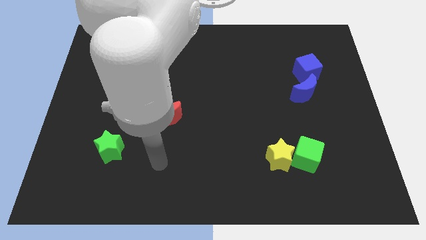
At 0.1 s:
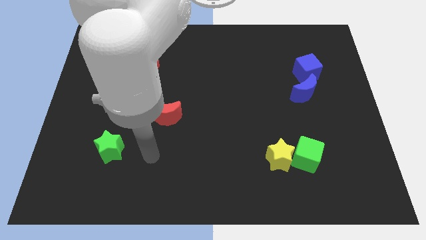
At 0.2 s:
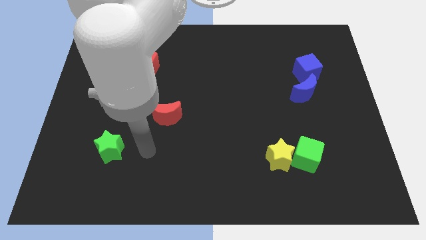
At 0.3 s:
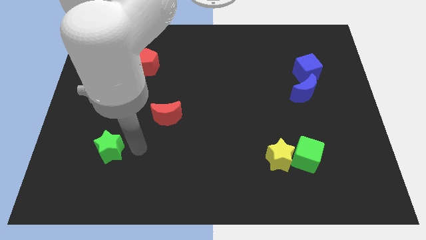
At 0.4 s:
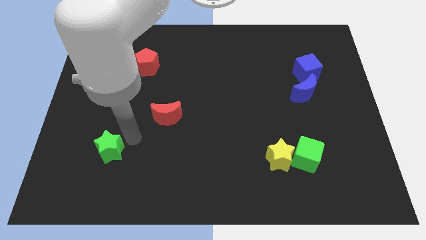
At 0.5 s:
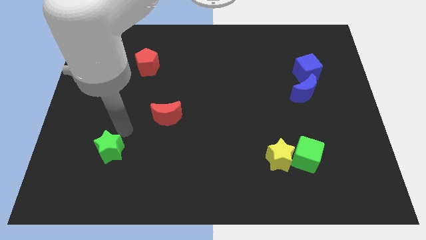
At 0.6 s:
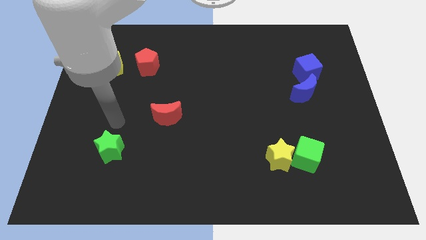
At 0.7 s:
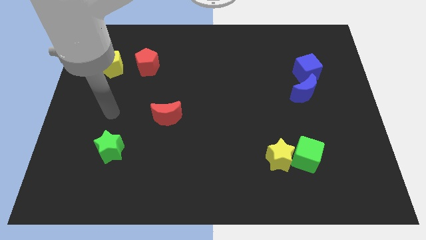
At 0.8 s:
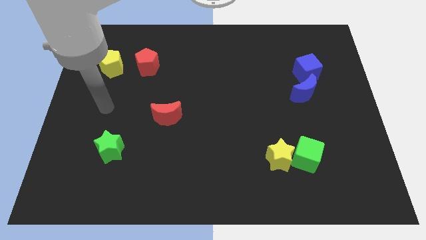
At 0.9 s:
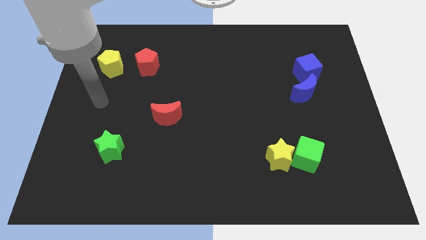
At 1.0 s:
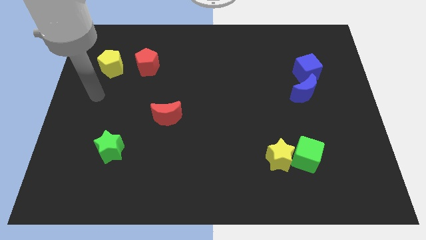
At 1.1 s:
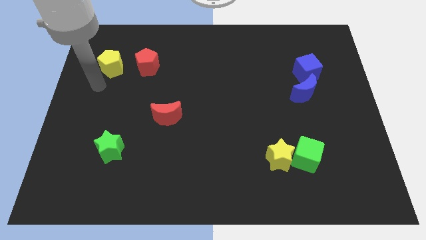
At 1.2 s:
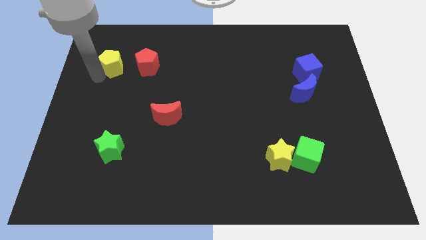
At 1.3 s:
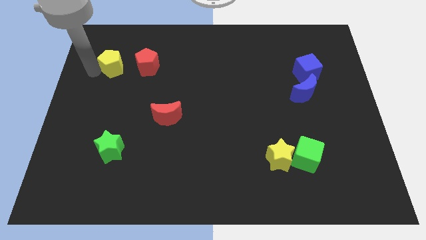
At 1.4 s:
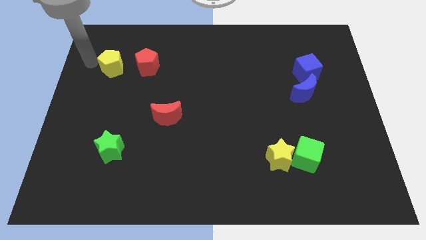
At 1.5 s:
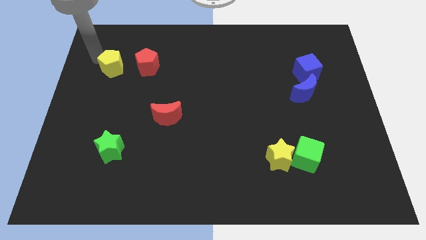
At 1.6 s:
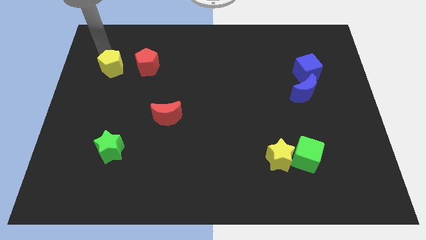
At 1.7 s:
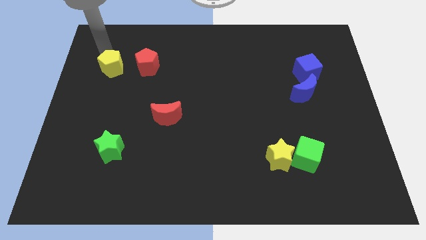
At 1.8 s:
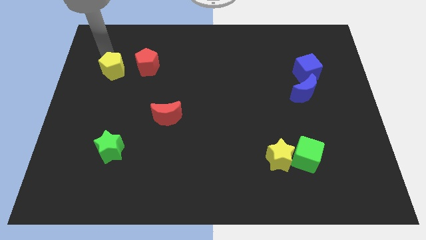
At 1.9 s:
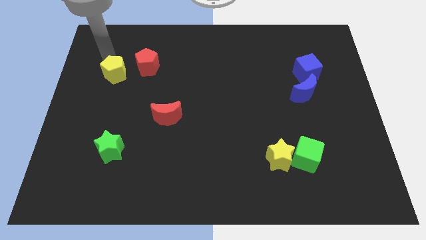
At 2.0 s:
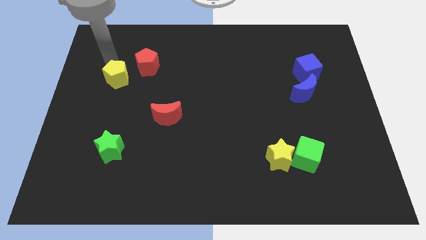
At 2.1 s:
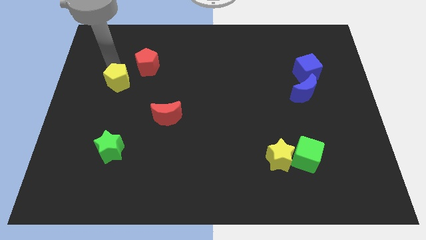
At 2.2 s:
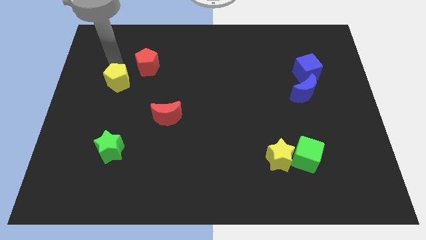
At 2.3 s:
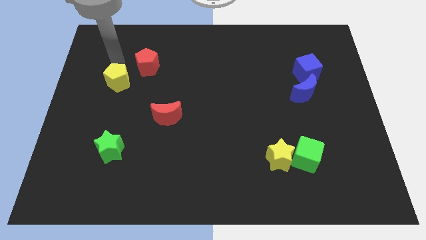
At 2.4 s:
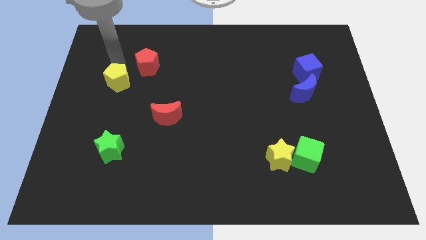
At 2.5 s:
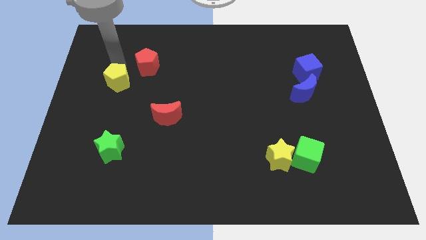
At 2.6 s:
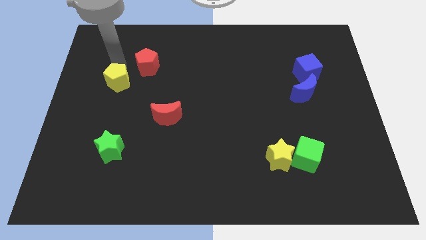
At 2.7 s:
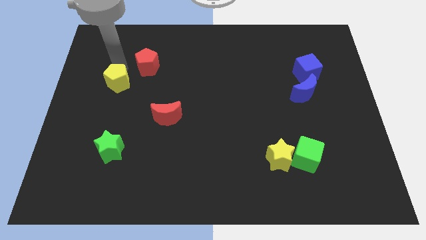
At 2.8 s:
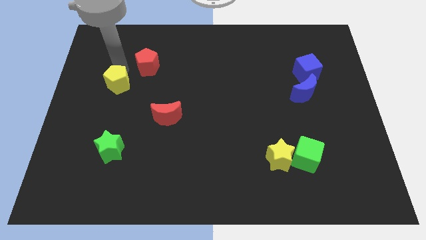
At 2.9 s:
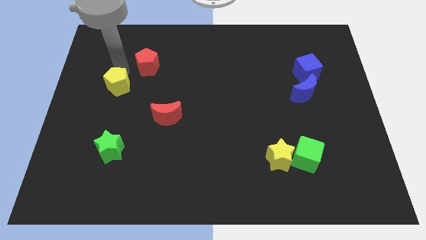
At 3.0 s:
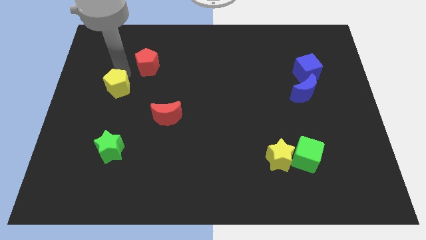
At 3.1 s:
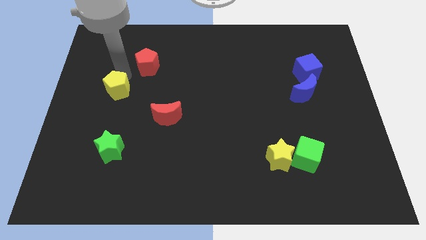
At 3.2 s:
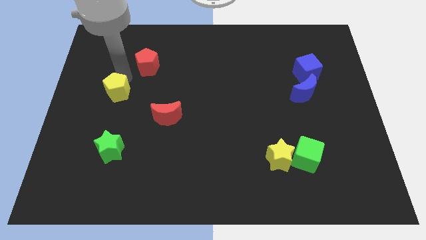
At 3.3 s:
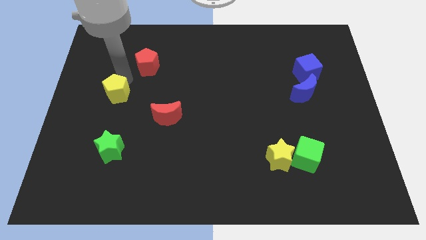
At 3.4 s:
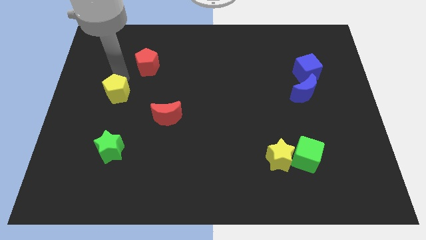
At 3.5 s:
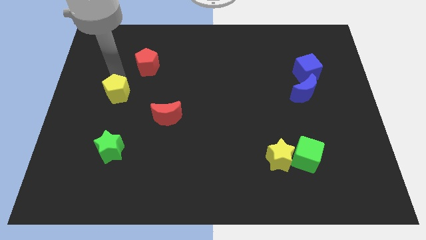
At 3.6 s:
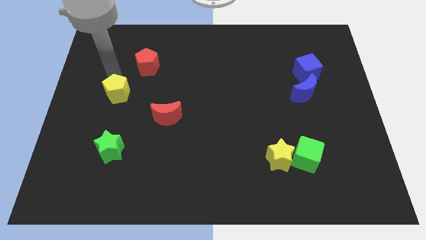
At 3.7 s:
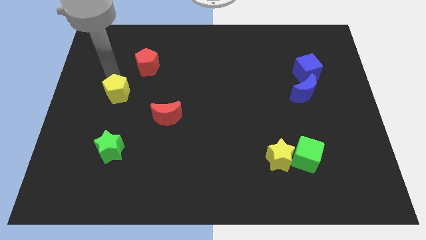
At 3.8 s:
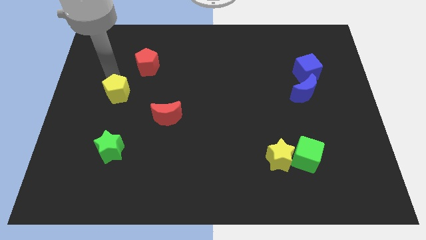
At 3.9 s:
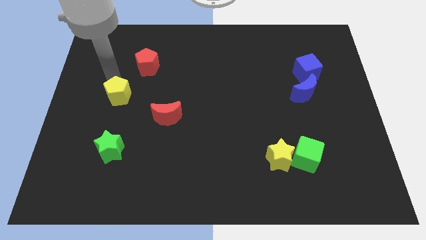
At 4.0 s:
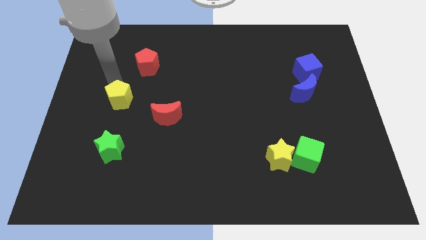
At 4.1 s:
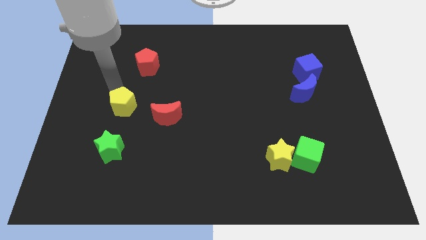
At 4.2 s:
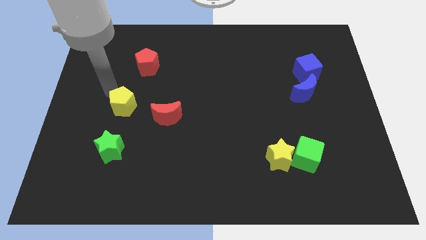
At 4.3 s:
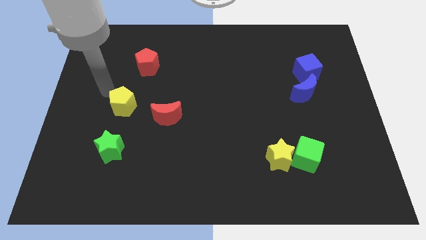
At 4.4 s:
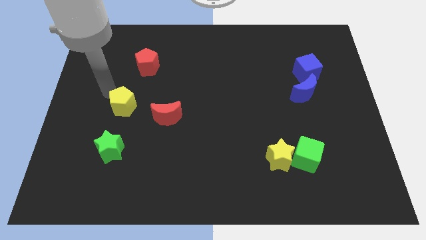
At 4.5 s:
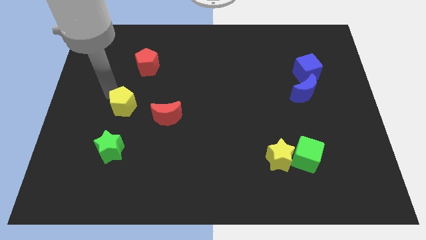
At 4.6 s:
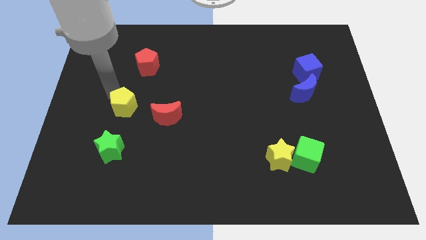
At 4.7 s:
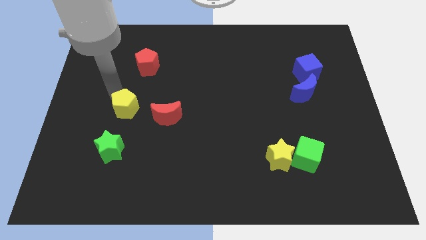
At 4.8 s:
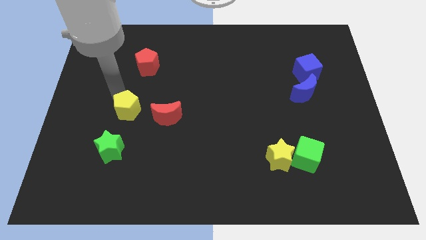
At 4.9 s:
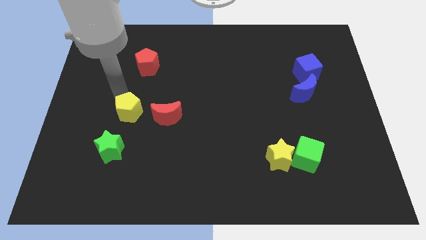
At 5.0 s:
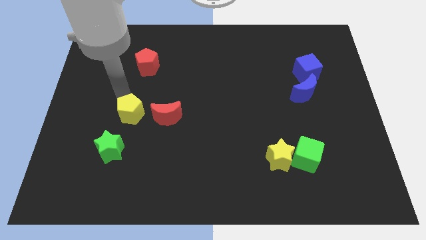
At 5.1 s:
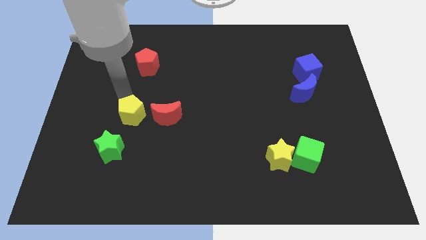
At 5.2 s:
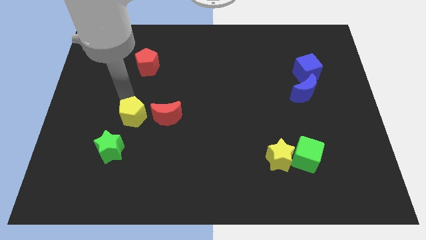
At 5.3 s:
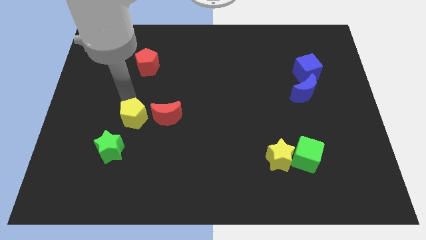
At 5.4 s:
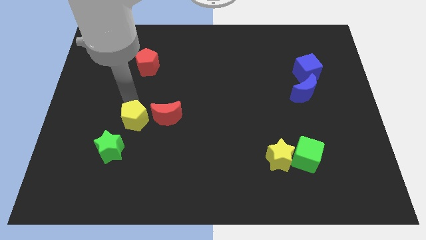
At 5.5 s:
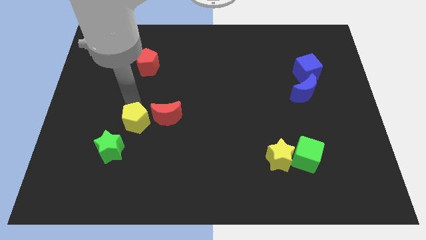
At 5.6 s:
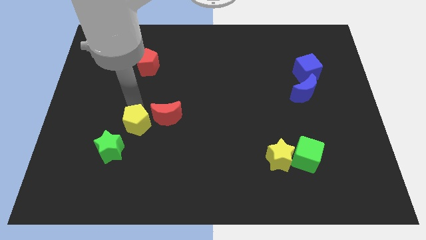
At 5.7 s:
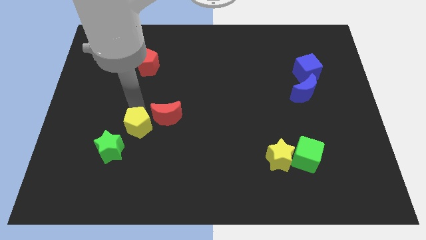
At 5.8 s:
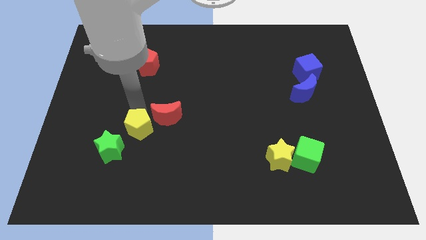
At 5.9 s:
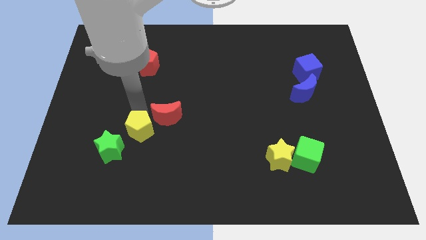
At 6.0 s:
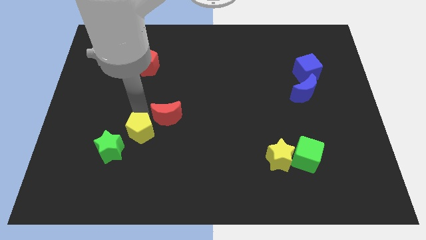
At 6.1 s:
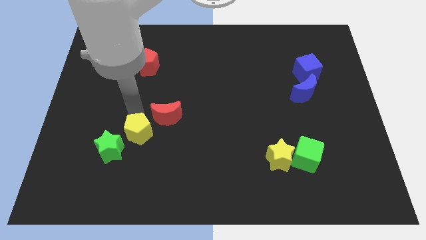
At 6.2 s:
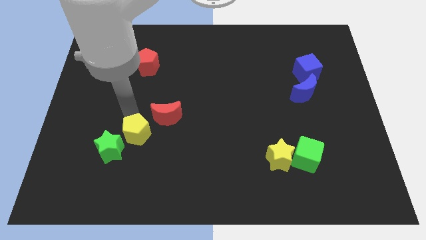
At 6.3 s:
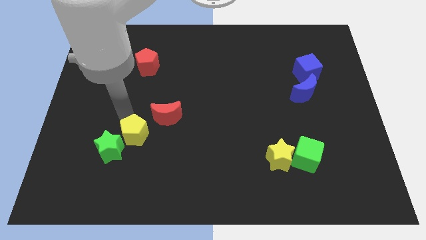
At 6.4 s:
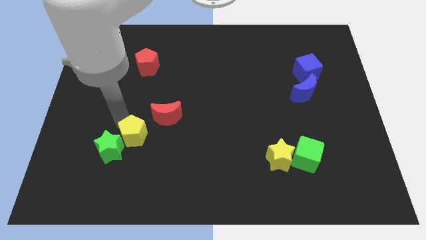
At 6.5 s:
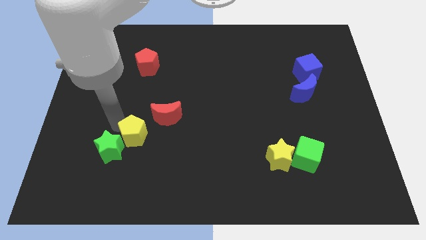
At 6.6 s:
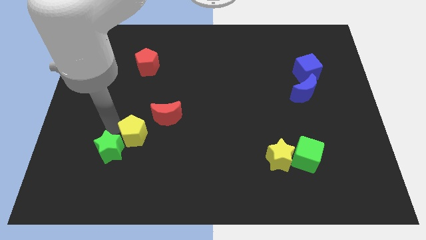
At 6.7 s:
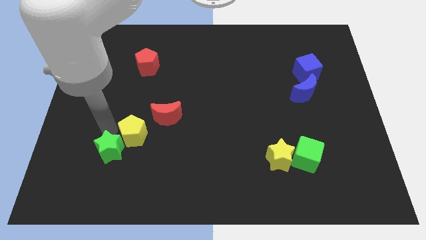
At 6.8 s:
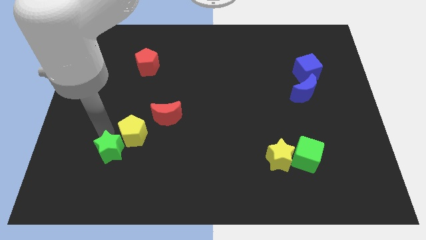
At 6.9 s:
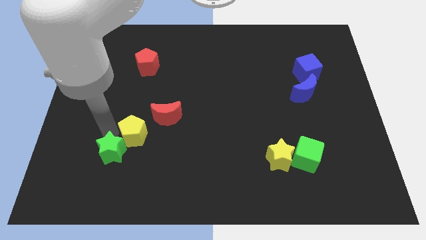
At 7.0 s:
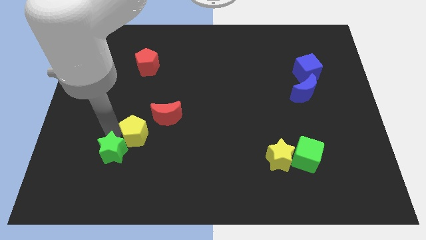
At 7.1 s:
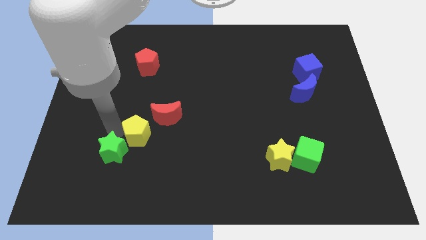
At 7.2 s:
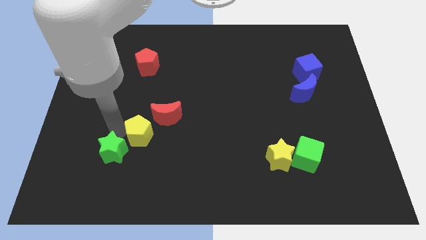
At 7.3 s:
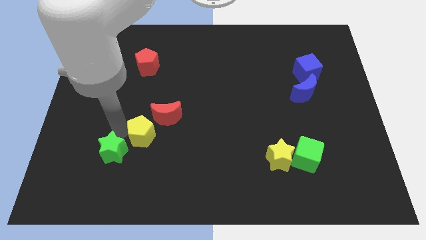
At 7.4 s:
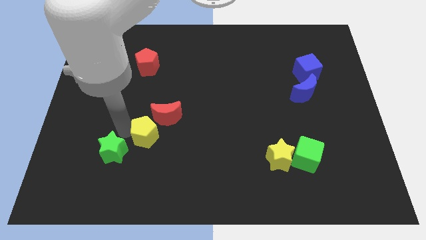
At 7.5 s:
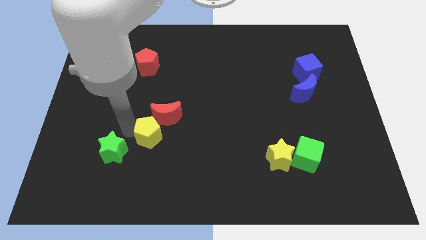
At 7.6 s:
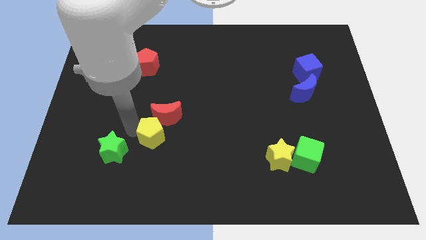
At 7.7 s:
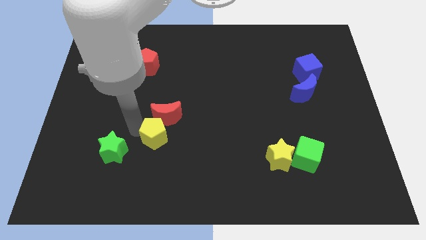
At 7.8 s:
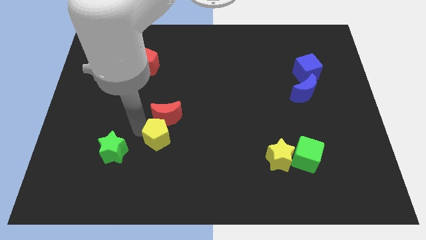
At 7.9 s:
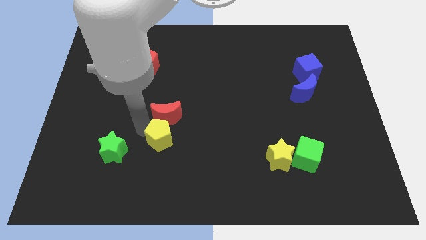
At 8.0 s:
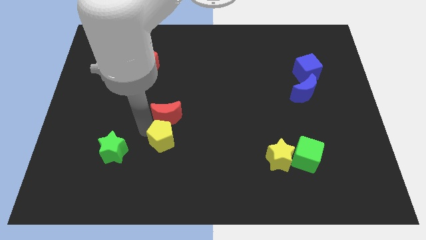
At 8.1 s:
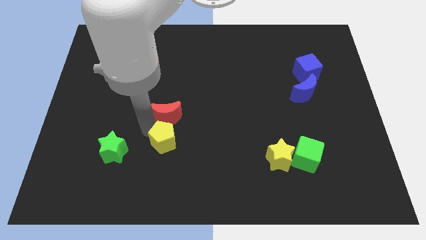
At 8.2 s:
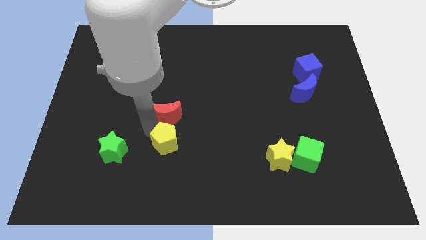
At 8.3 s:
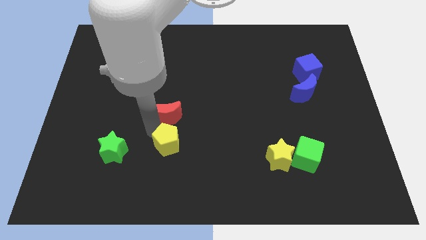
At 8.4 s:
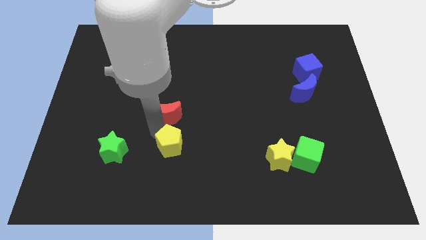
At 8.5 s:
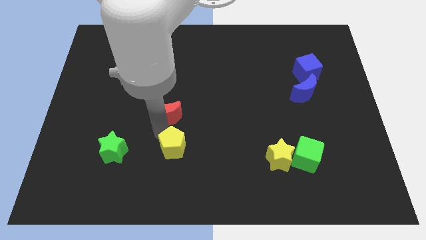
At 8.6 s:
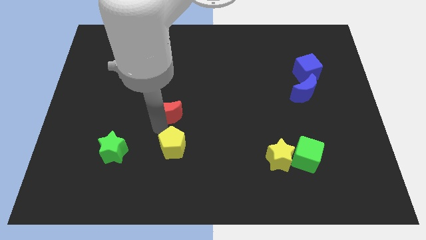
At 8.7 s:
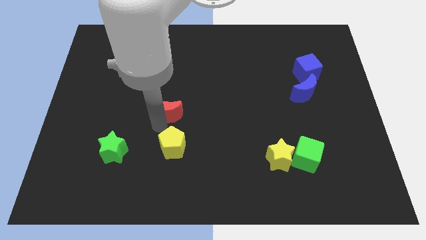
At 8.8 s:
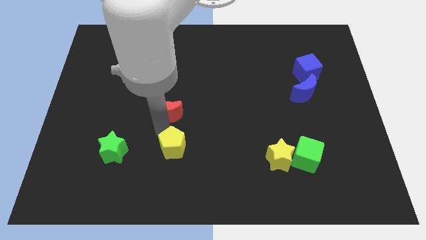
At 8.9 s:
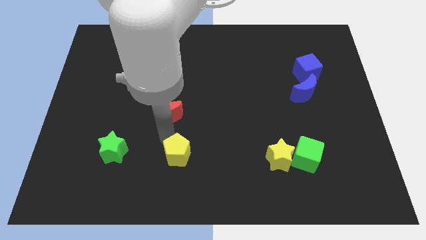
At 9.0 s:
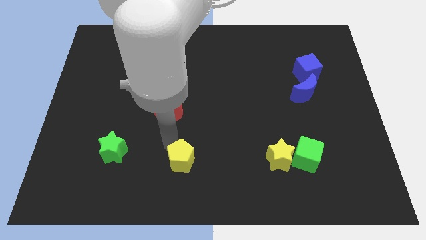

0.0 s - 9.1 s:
slide the yellow pentagon to the bottom
